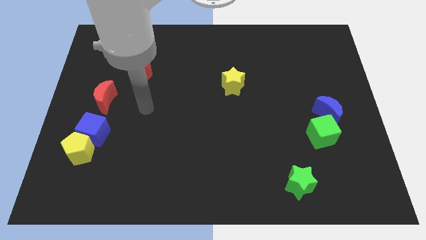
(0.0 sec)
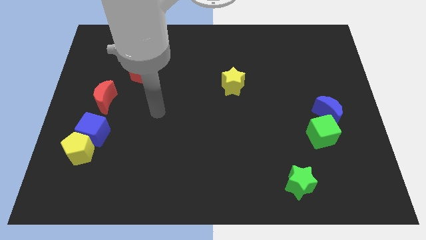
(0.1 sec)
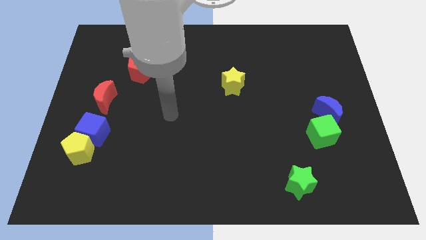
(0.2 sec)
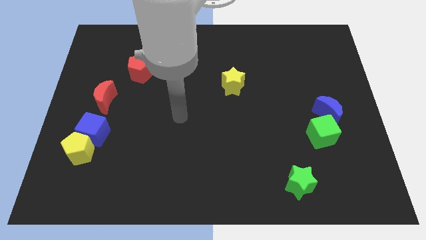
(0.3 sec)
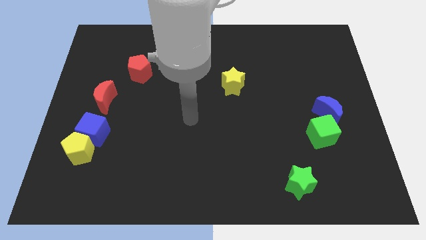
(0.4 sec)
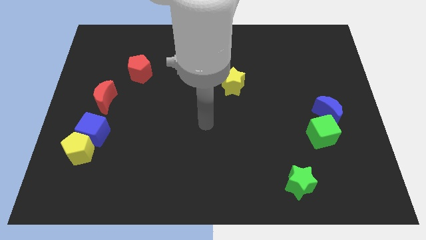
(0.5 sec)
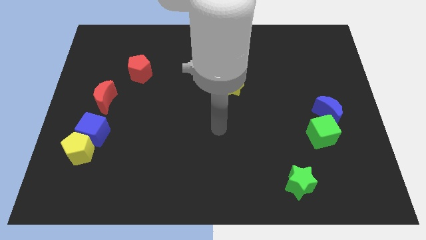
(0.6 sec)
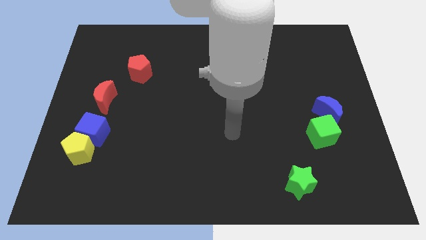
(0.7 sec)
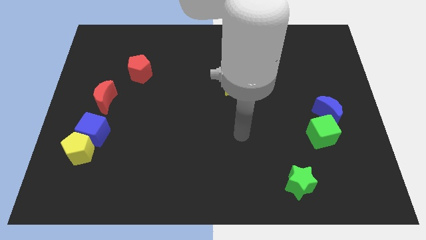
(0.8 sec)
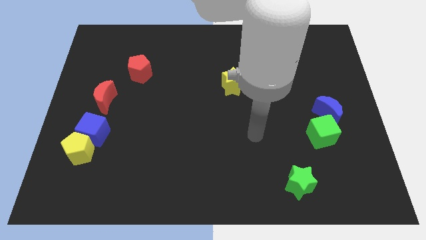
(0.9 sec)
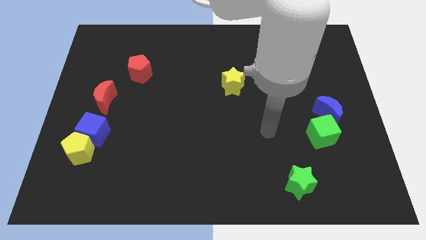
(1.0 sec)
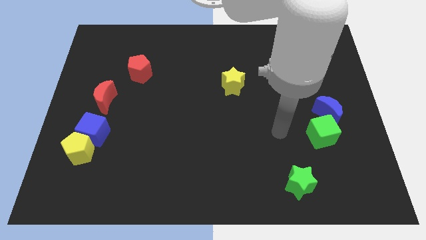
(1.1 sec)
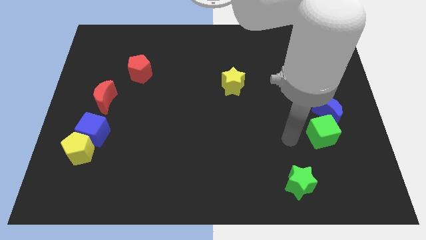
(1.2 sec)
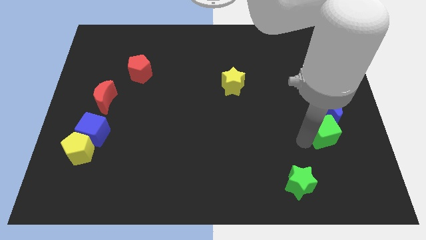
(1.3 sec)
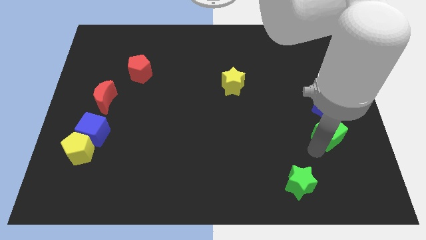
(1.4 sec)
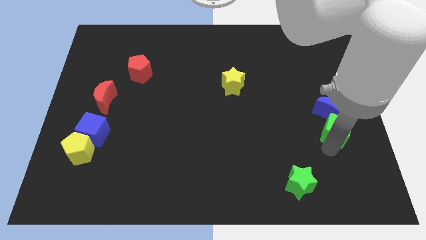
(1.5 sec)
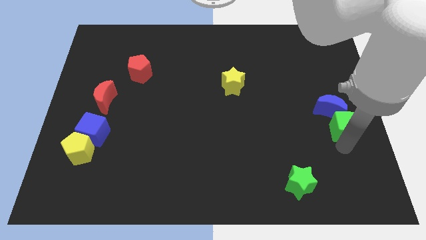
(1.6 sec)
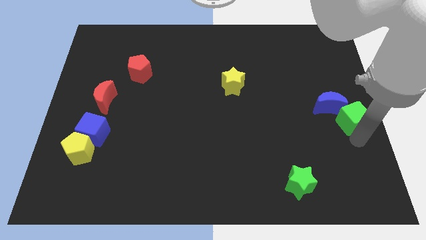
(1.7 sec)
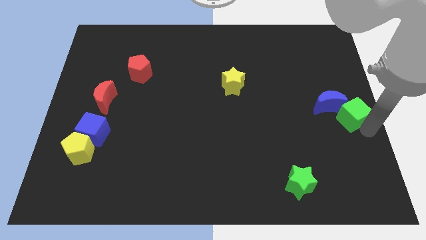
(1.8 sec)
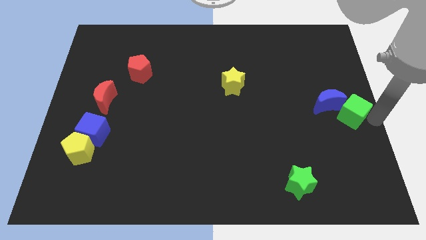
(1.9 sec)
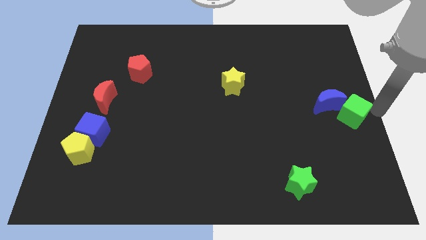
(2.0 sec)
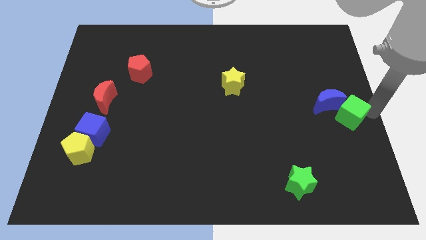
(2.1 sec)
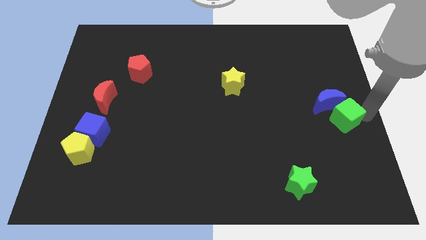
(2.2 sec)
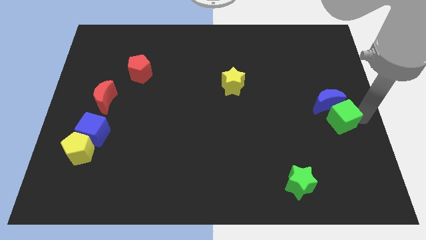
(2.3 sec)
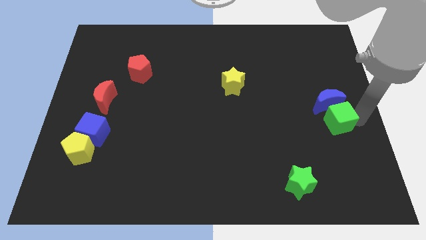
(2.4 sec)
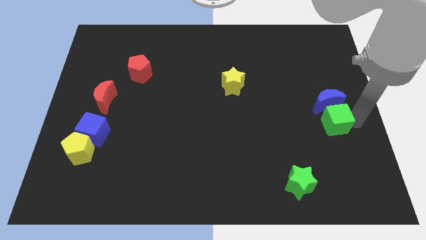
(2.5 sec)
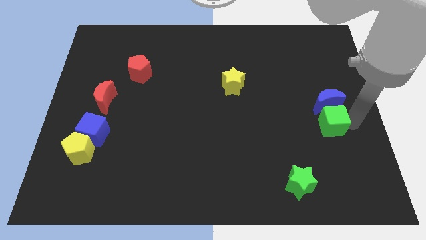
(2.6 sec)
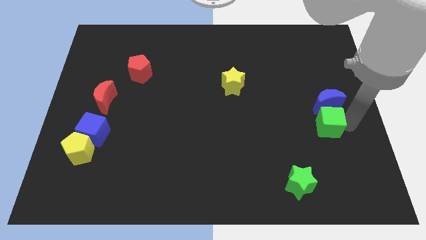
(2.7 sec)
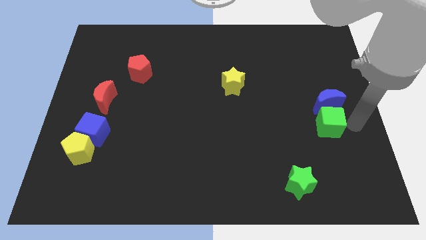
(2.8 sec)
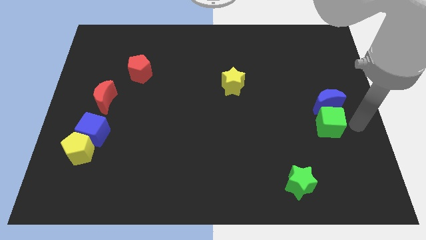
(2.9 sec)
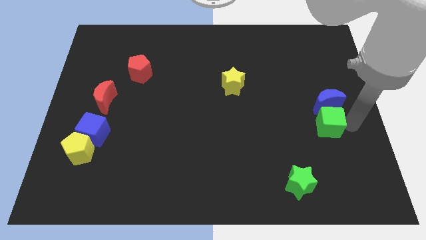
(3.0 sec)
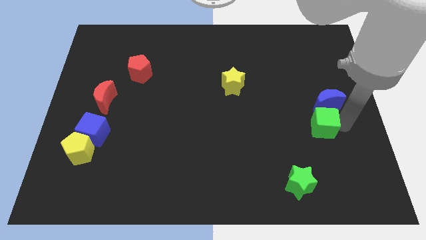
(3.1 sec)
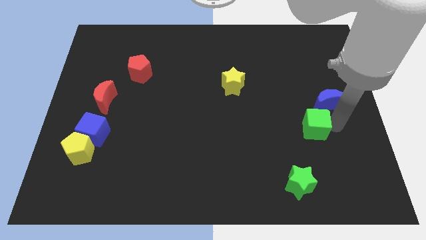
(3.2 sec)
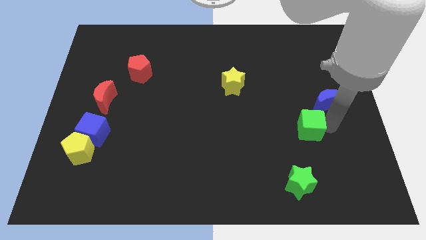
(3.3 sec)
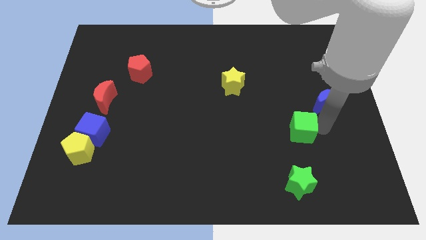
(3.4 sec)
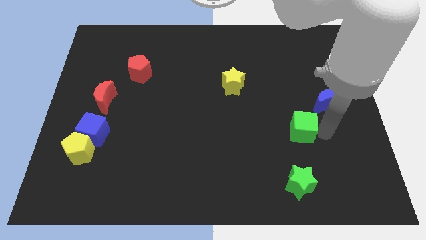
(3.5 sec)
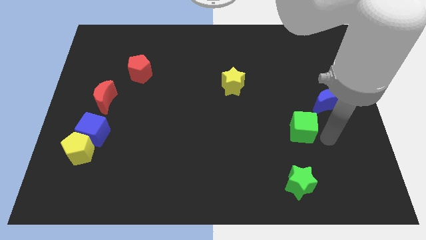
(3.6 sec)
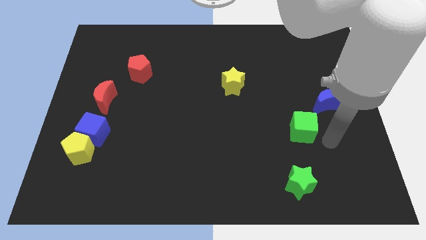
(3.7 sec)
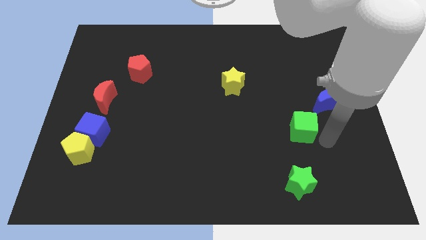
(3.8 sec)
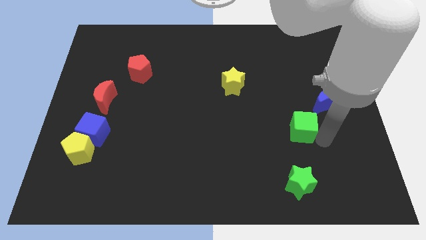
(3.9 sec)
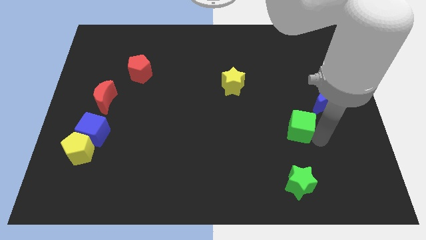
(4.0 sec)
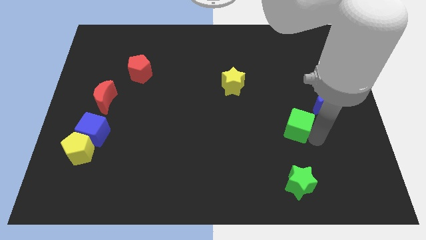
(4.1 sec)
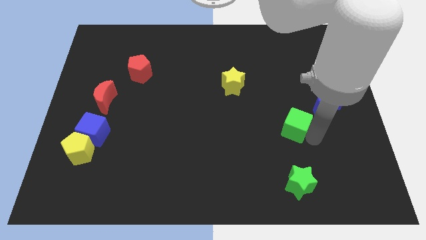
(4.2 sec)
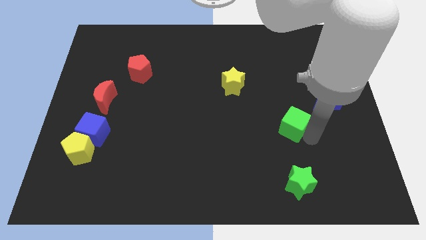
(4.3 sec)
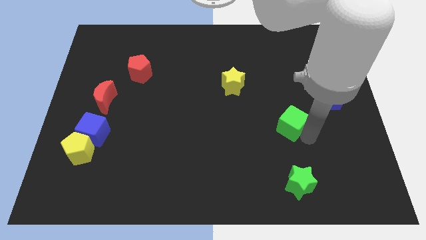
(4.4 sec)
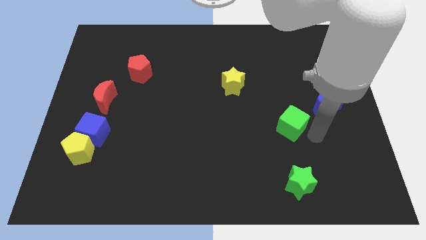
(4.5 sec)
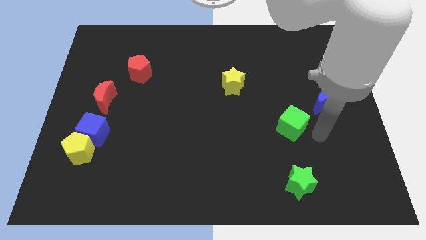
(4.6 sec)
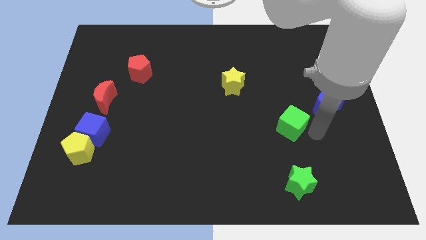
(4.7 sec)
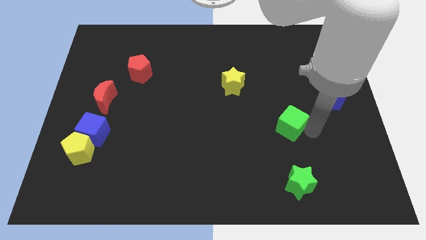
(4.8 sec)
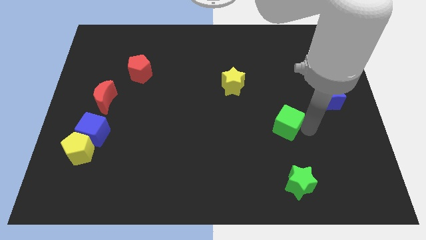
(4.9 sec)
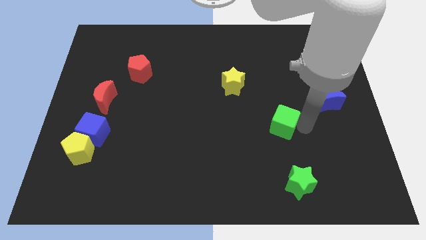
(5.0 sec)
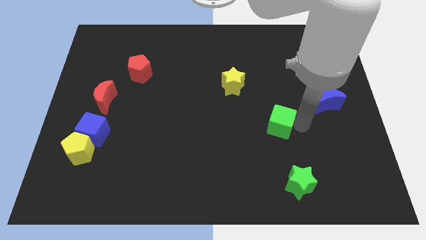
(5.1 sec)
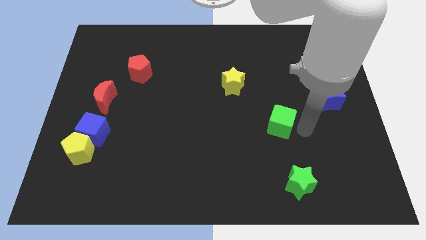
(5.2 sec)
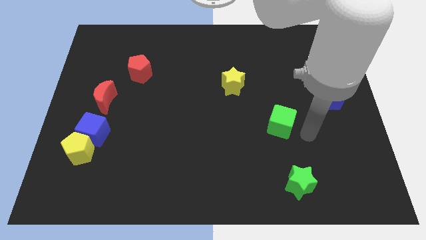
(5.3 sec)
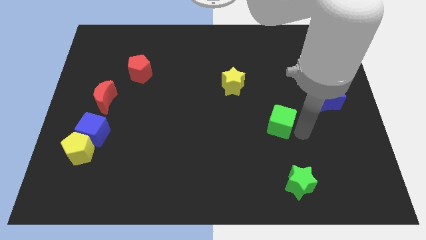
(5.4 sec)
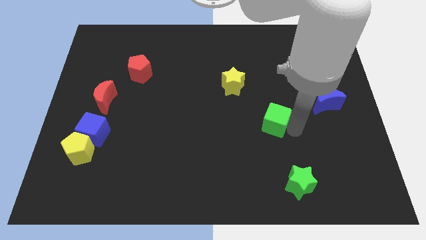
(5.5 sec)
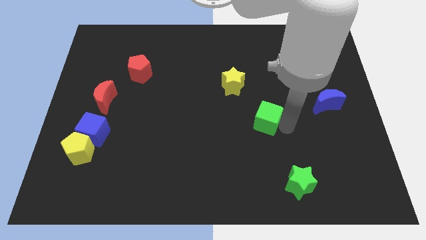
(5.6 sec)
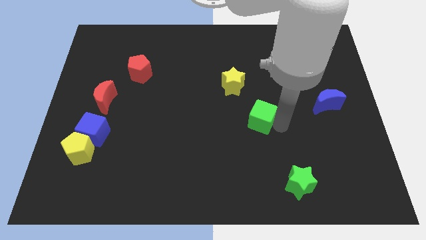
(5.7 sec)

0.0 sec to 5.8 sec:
slide the green cube to the middle of the board

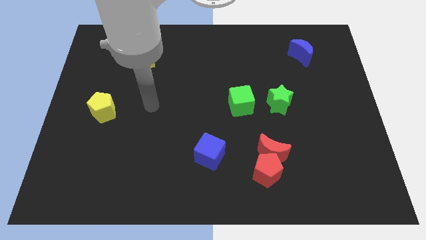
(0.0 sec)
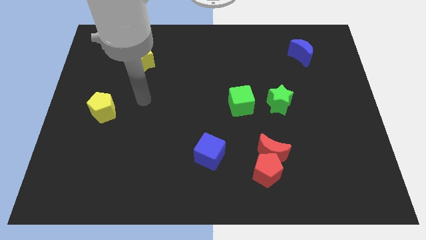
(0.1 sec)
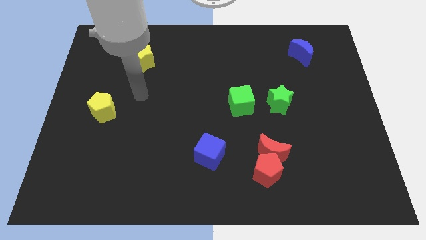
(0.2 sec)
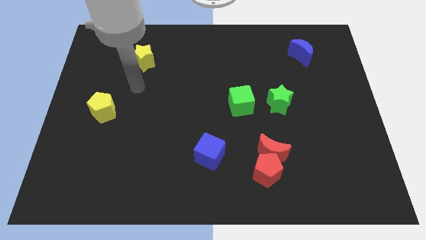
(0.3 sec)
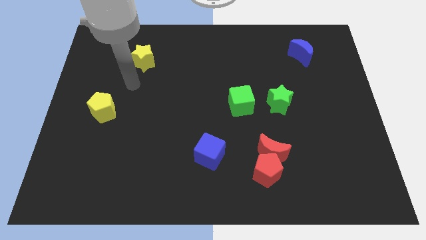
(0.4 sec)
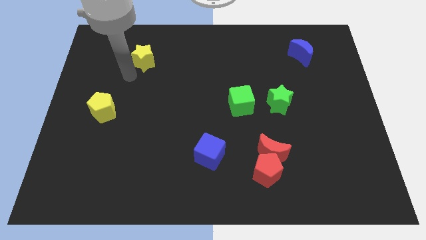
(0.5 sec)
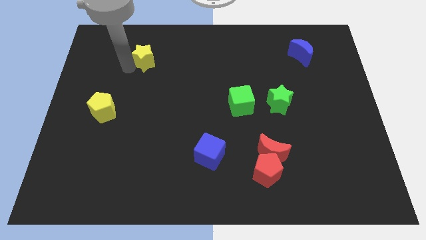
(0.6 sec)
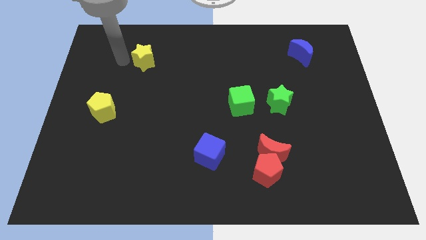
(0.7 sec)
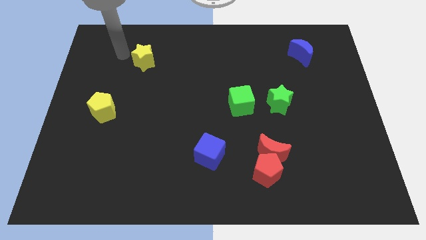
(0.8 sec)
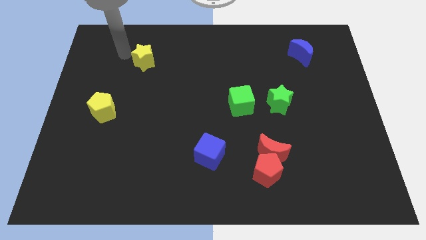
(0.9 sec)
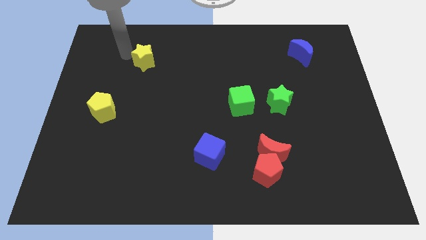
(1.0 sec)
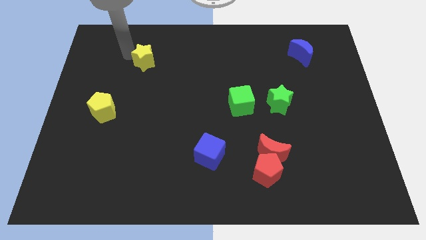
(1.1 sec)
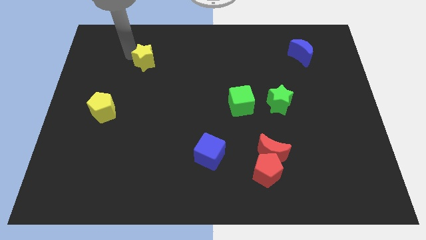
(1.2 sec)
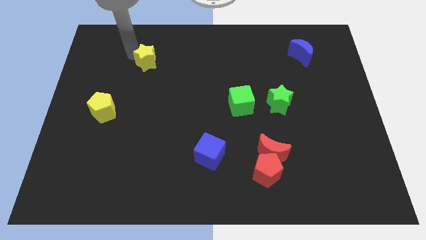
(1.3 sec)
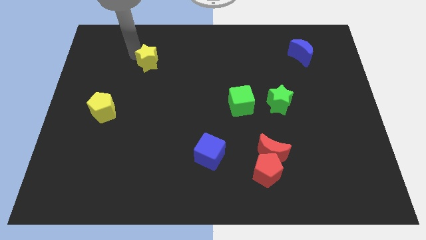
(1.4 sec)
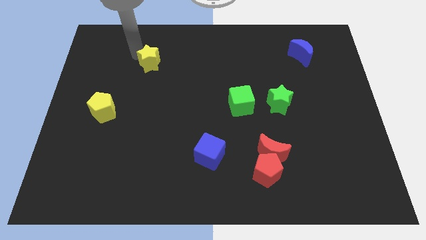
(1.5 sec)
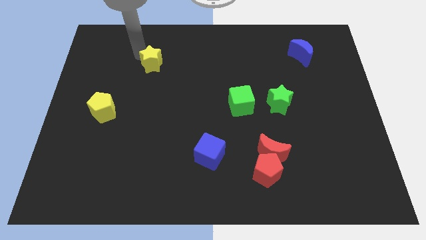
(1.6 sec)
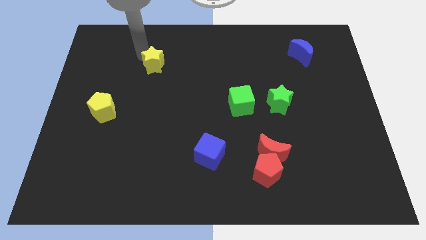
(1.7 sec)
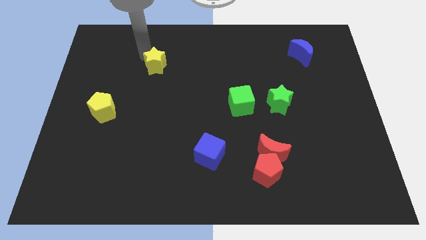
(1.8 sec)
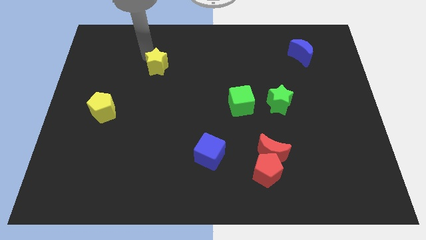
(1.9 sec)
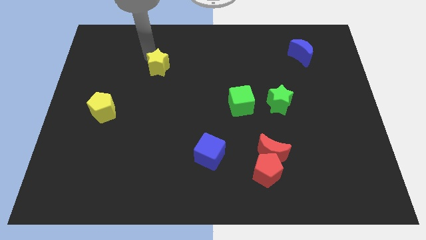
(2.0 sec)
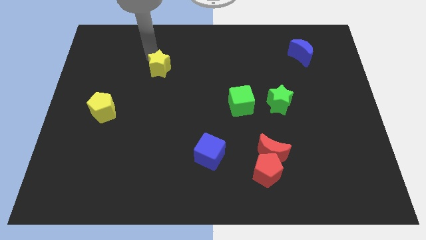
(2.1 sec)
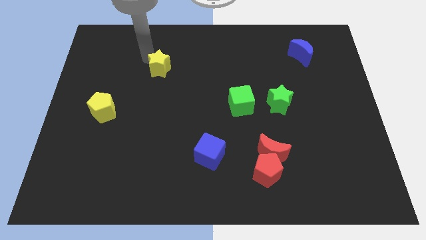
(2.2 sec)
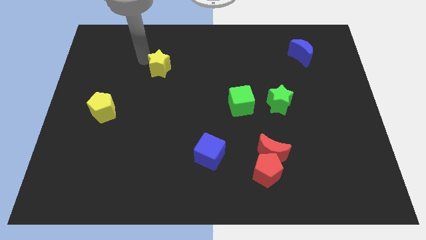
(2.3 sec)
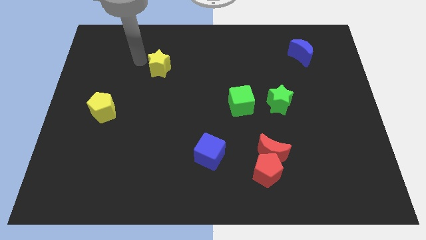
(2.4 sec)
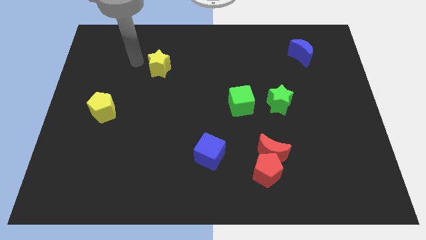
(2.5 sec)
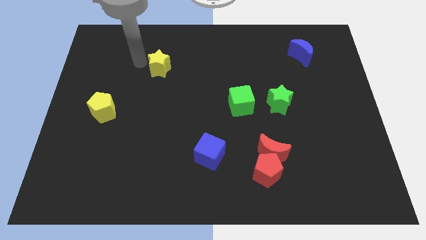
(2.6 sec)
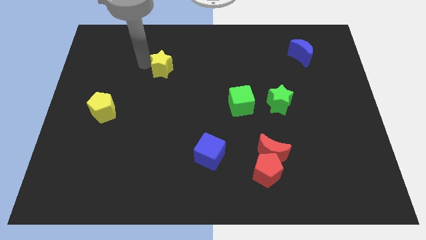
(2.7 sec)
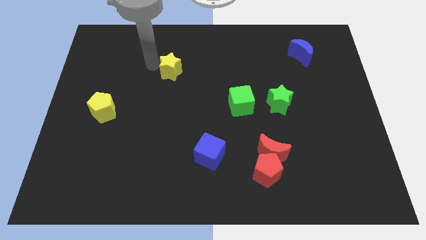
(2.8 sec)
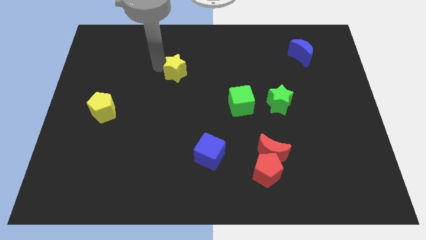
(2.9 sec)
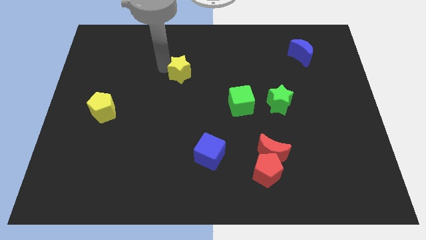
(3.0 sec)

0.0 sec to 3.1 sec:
move the yellow star to the center of the board
